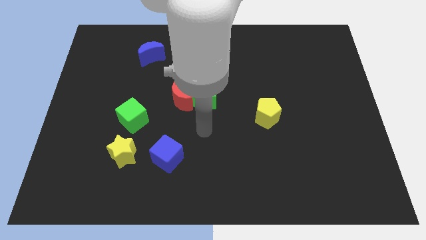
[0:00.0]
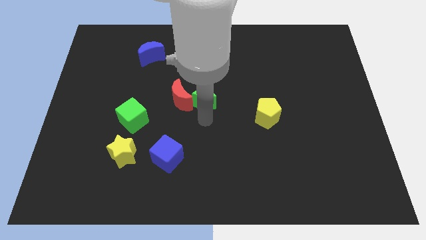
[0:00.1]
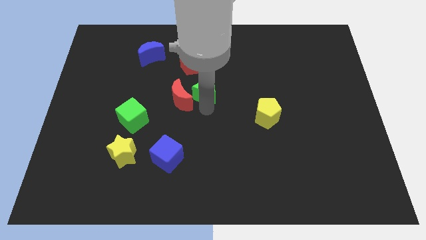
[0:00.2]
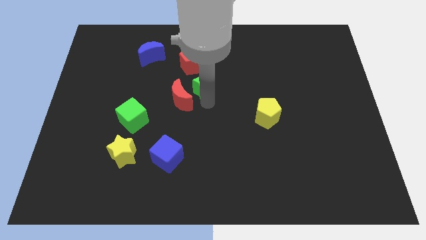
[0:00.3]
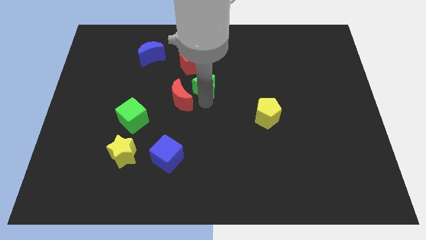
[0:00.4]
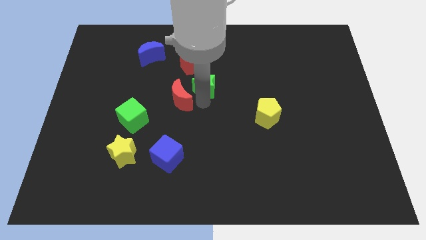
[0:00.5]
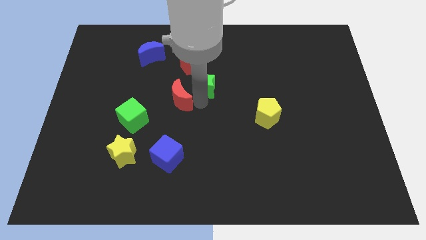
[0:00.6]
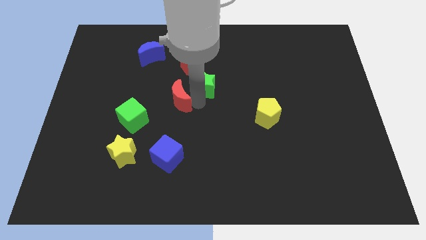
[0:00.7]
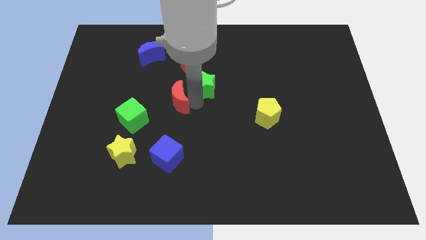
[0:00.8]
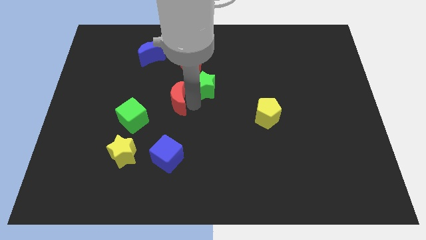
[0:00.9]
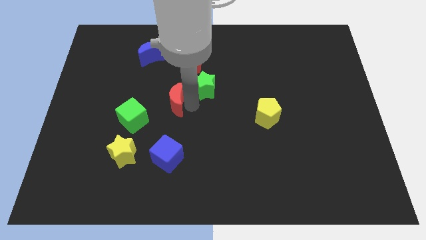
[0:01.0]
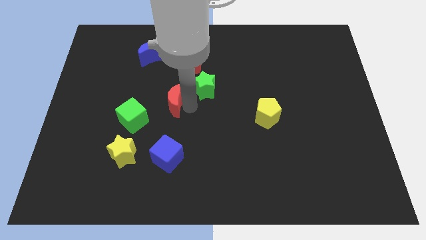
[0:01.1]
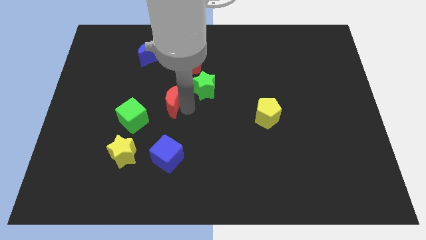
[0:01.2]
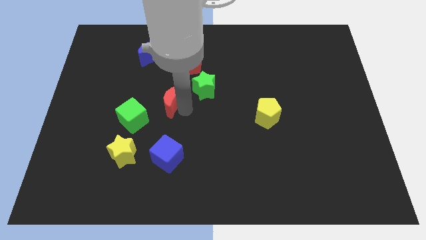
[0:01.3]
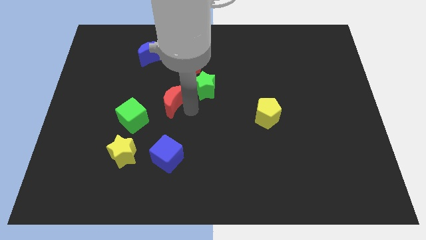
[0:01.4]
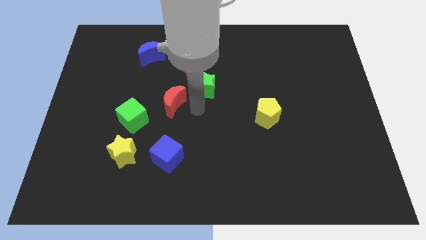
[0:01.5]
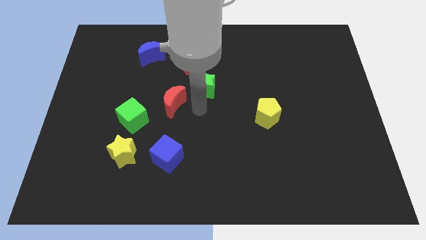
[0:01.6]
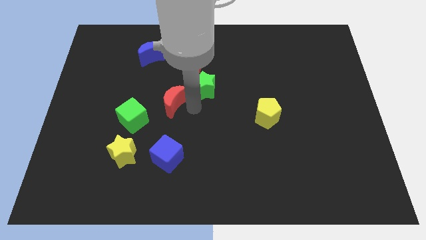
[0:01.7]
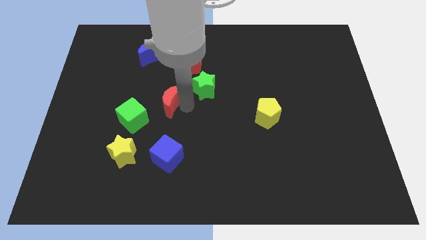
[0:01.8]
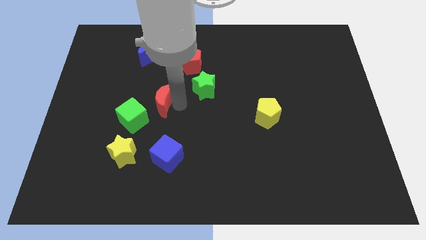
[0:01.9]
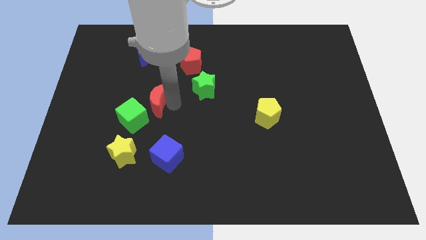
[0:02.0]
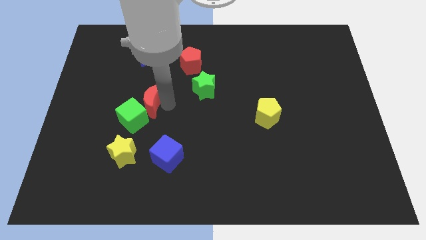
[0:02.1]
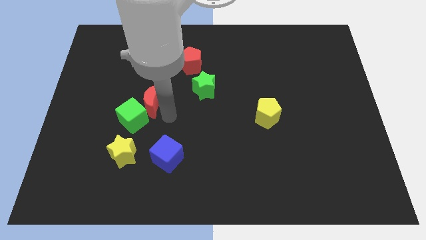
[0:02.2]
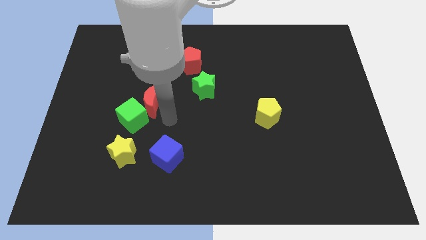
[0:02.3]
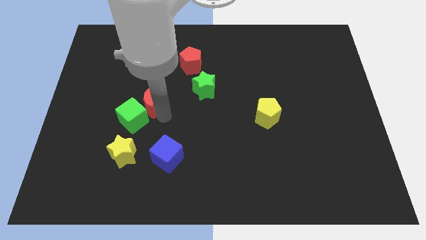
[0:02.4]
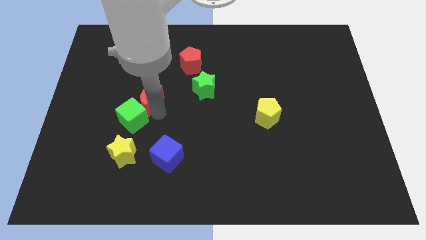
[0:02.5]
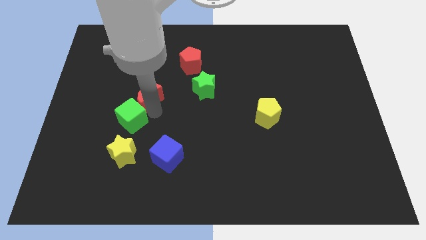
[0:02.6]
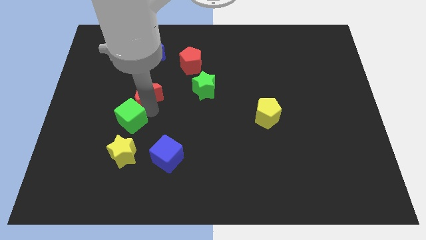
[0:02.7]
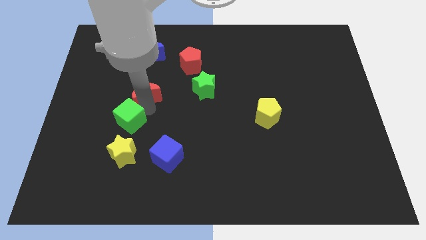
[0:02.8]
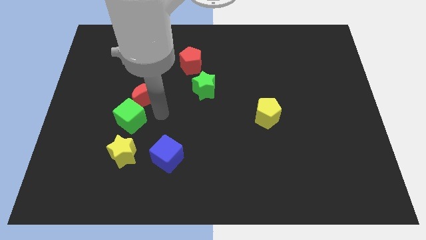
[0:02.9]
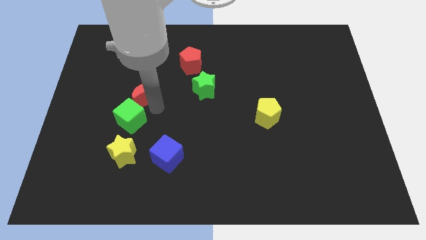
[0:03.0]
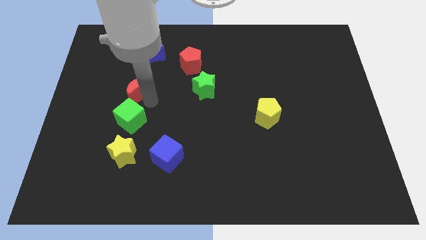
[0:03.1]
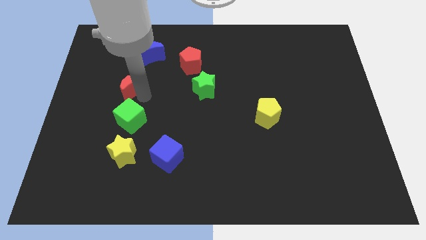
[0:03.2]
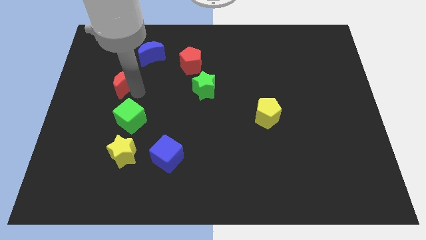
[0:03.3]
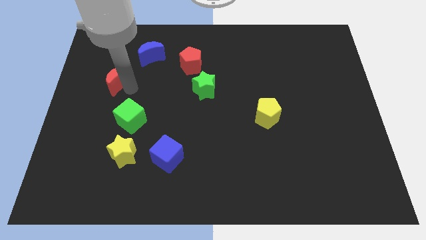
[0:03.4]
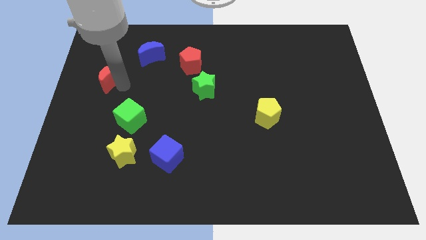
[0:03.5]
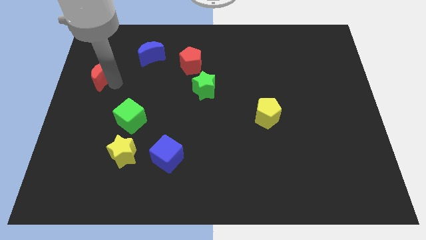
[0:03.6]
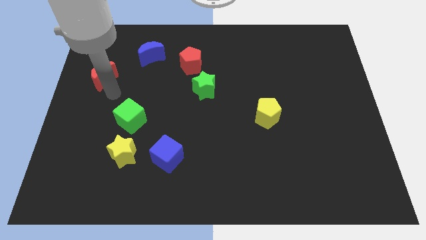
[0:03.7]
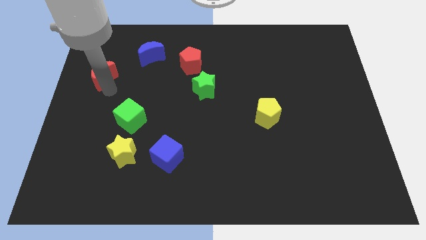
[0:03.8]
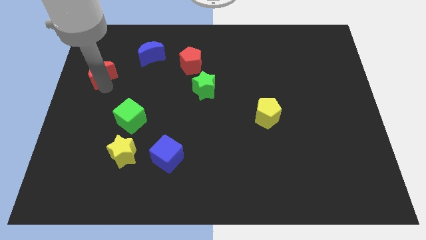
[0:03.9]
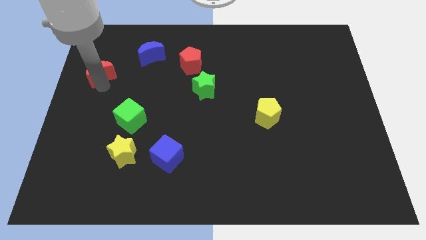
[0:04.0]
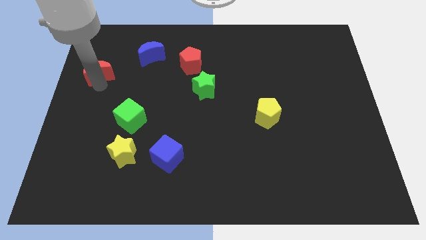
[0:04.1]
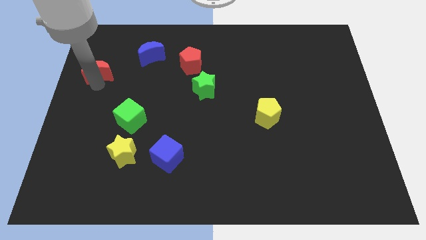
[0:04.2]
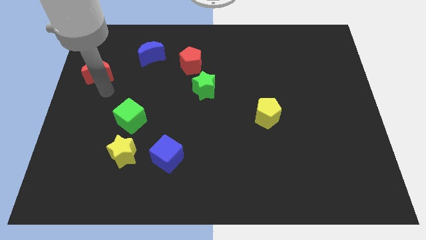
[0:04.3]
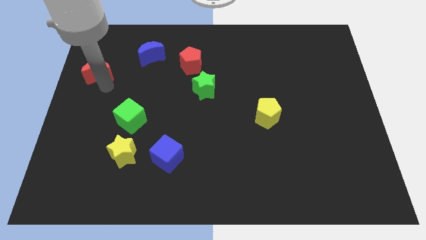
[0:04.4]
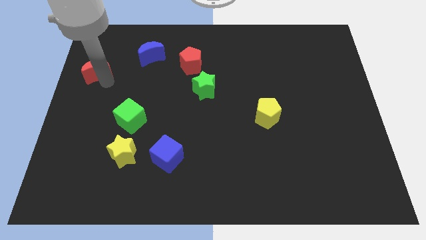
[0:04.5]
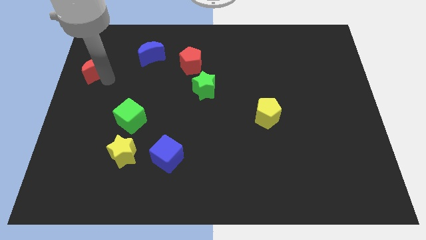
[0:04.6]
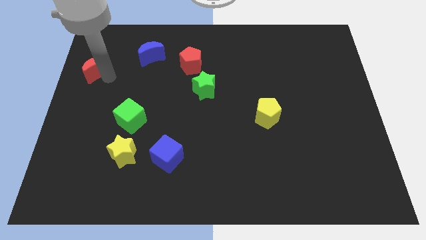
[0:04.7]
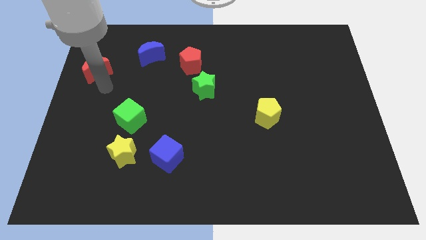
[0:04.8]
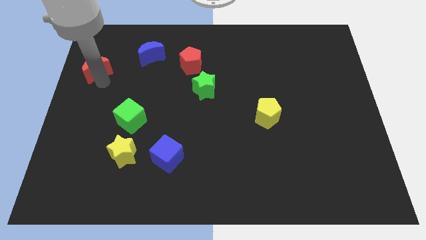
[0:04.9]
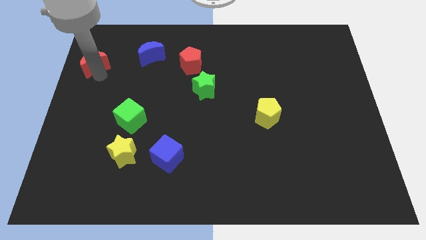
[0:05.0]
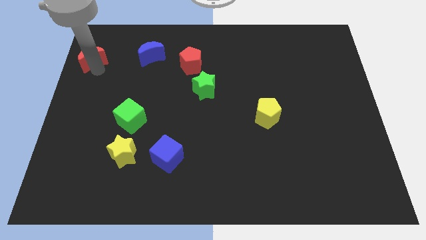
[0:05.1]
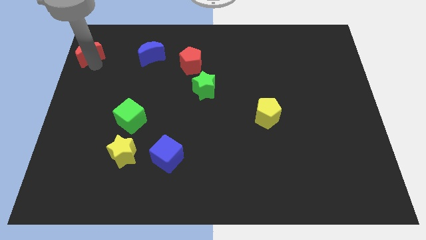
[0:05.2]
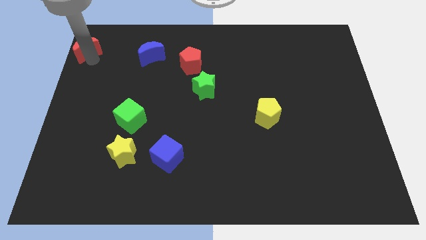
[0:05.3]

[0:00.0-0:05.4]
put the red moon to the top left of the board

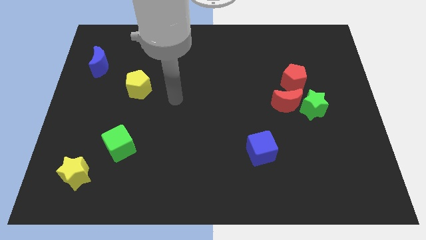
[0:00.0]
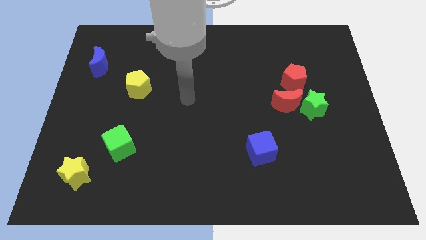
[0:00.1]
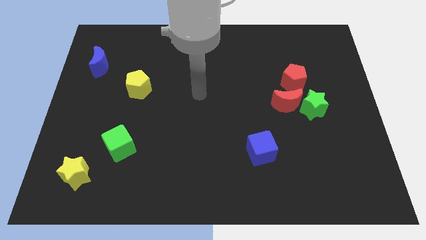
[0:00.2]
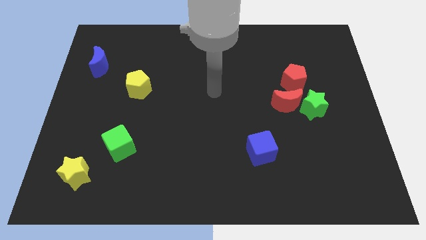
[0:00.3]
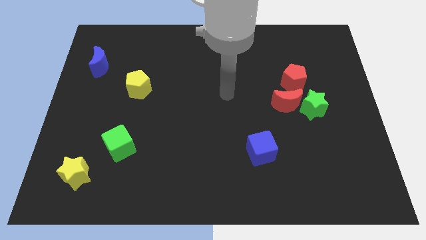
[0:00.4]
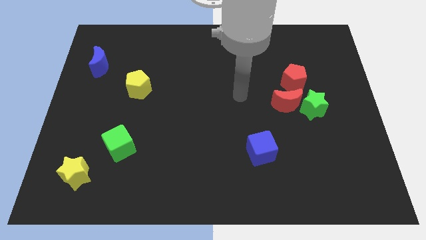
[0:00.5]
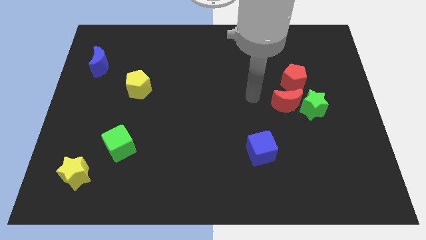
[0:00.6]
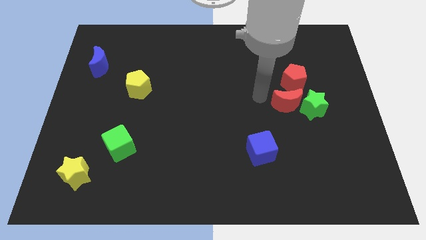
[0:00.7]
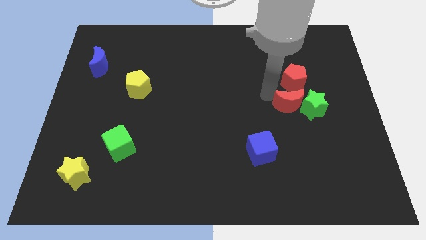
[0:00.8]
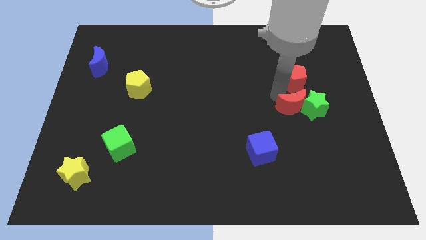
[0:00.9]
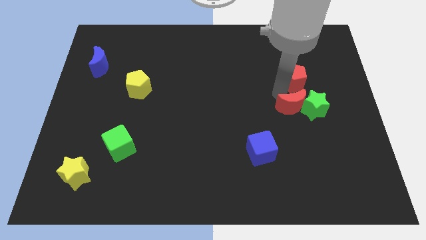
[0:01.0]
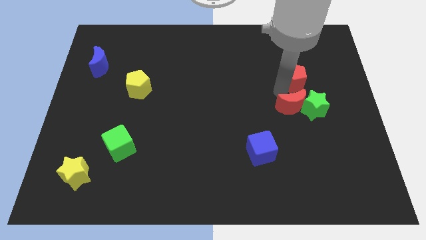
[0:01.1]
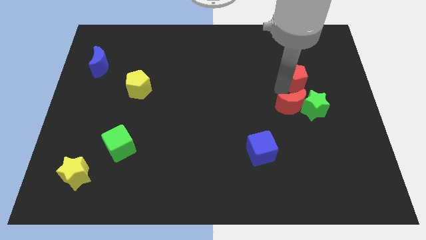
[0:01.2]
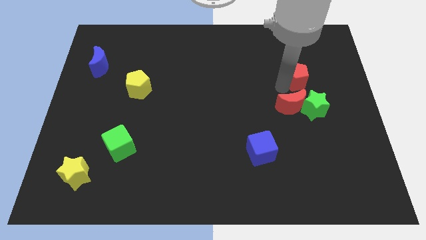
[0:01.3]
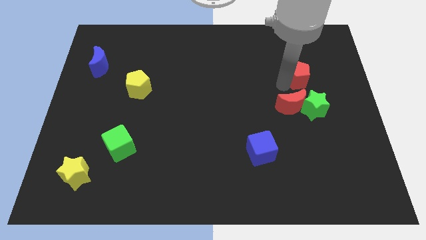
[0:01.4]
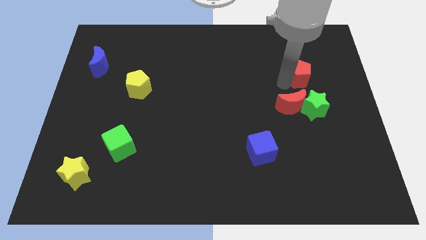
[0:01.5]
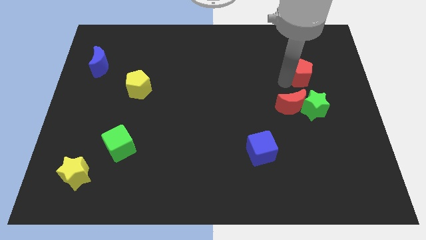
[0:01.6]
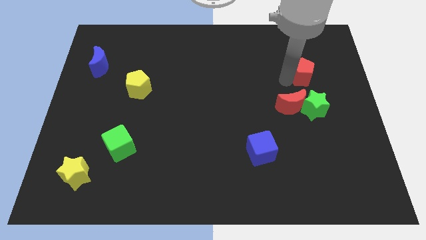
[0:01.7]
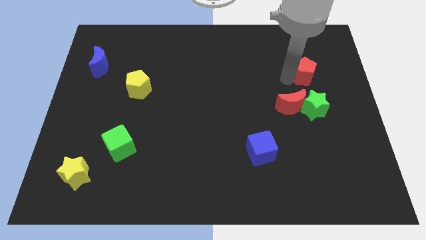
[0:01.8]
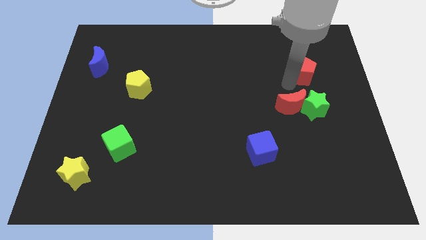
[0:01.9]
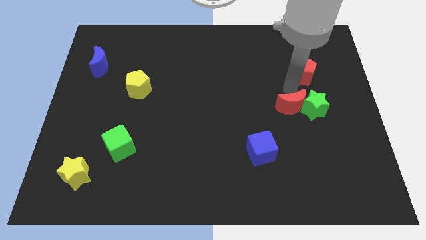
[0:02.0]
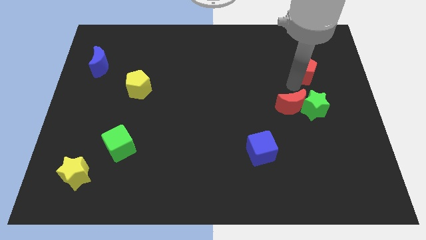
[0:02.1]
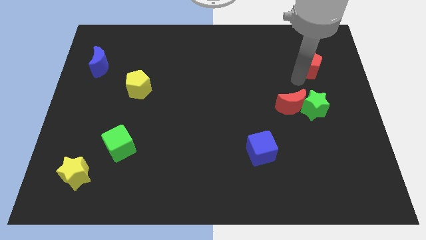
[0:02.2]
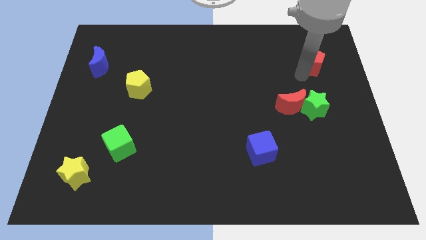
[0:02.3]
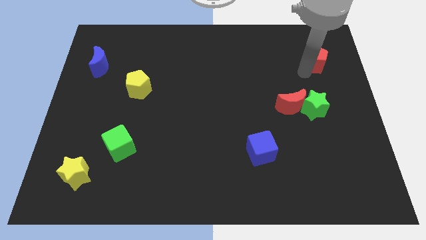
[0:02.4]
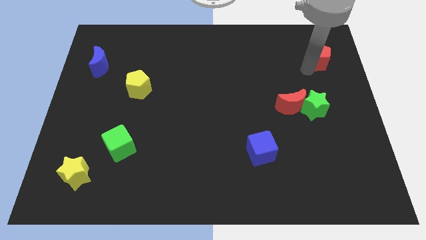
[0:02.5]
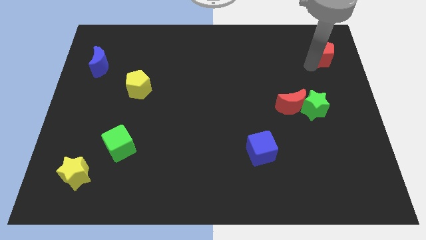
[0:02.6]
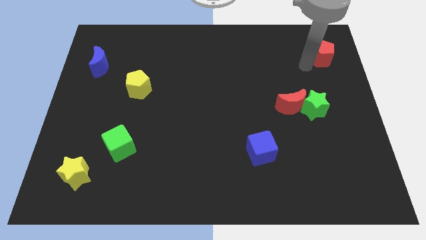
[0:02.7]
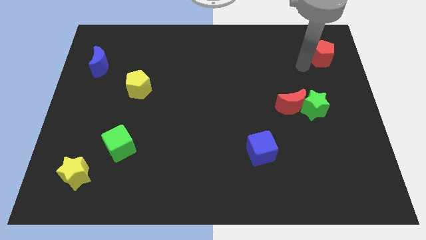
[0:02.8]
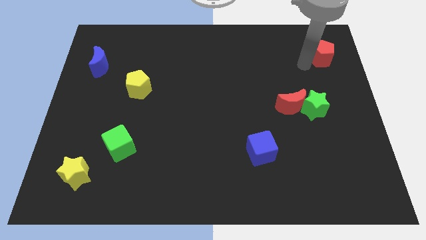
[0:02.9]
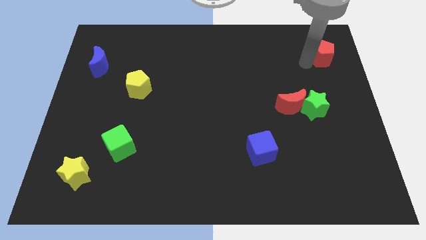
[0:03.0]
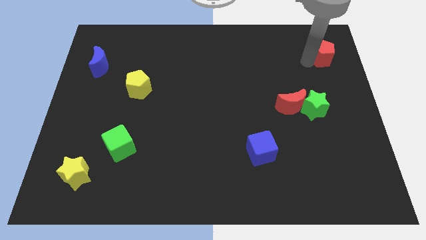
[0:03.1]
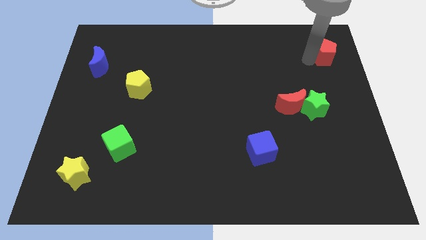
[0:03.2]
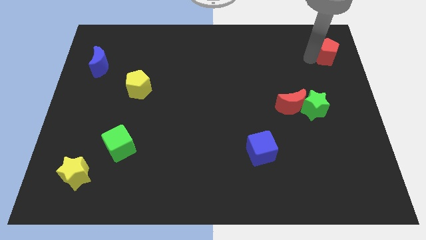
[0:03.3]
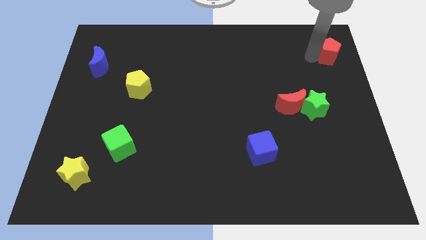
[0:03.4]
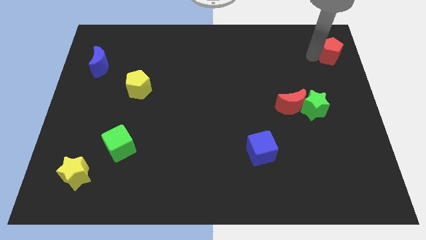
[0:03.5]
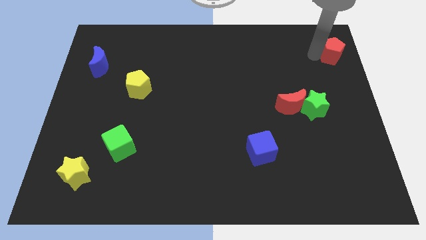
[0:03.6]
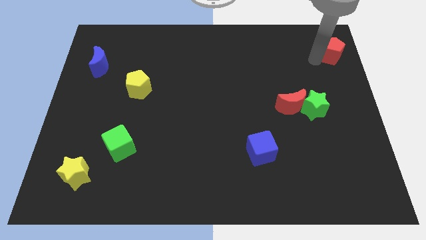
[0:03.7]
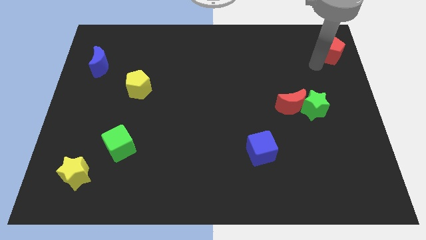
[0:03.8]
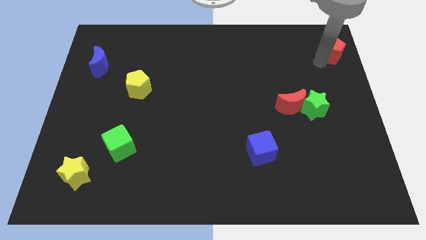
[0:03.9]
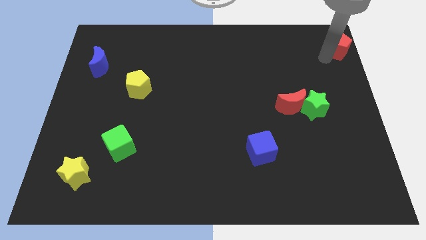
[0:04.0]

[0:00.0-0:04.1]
move the red pentagon to the top right corner
